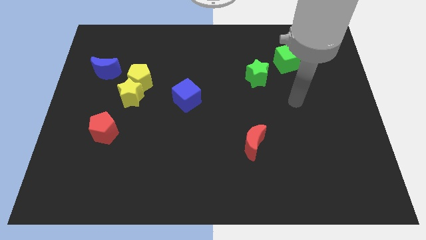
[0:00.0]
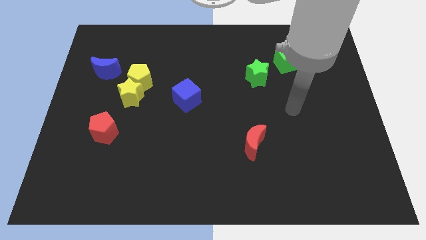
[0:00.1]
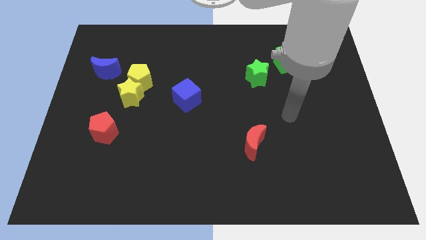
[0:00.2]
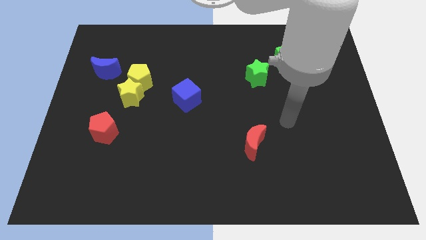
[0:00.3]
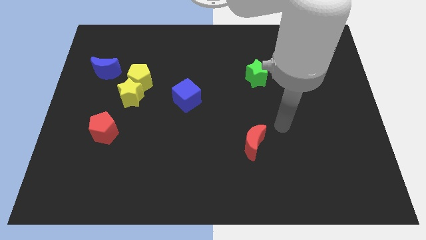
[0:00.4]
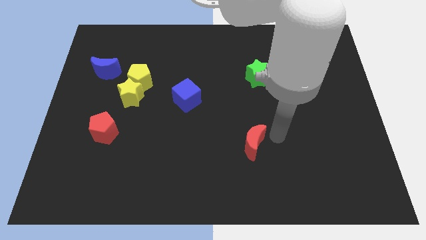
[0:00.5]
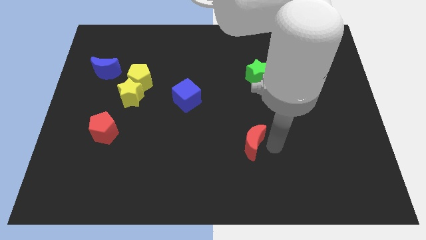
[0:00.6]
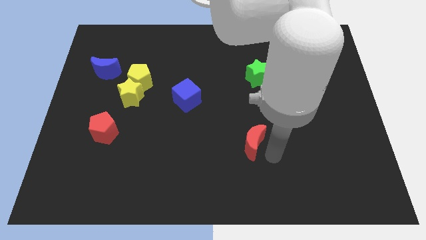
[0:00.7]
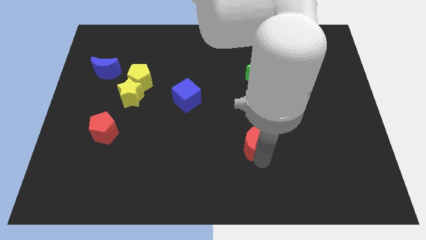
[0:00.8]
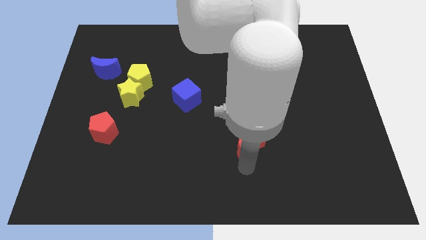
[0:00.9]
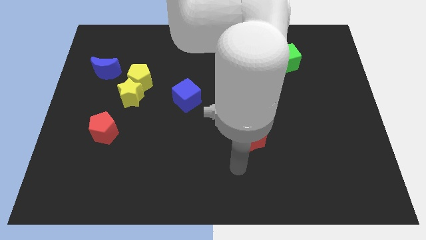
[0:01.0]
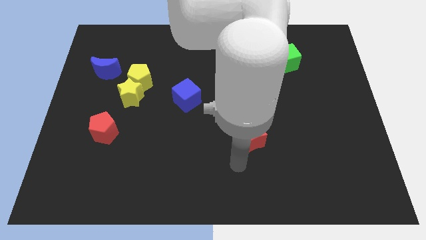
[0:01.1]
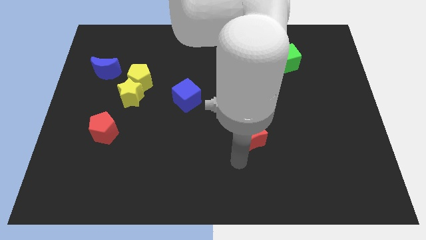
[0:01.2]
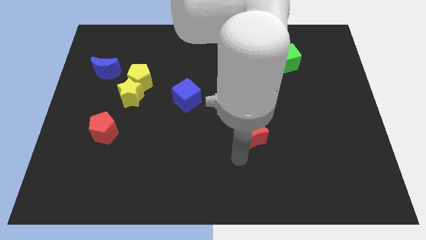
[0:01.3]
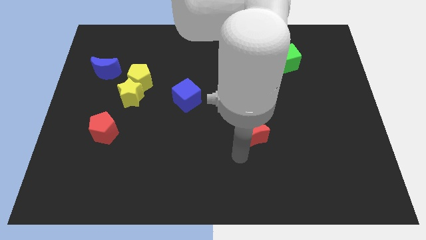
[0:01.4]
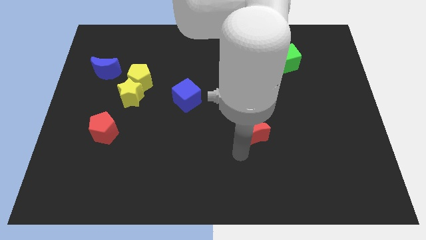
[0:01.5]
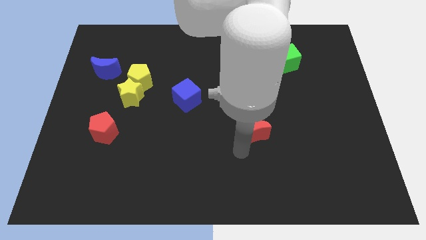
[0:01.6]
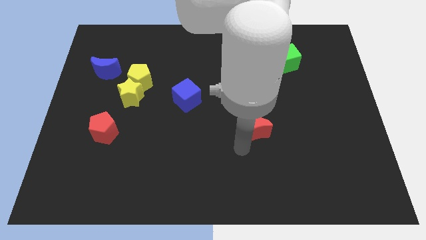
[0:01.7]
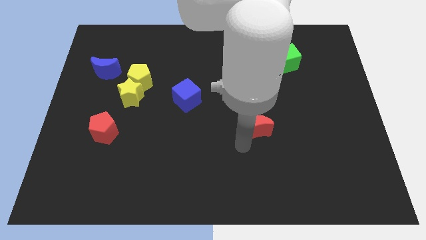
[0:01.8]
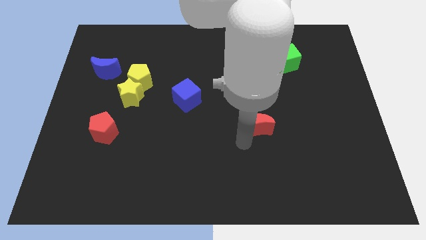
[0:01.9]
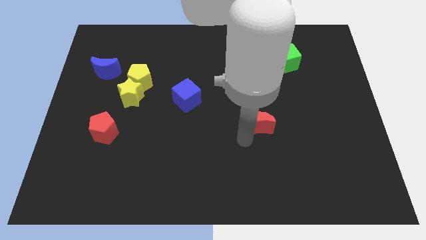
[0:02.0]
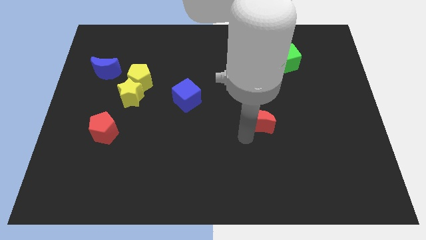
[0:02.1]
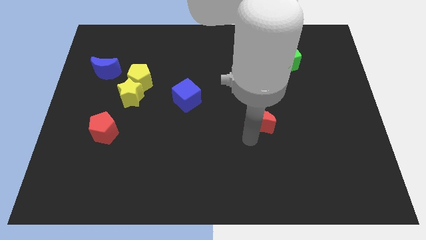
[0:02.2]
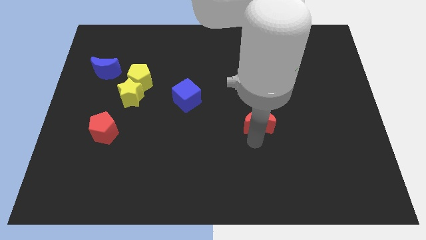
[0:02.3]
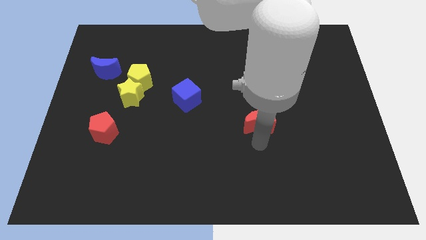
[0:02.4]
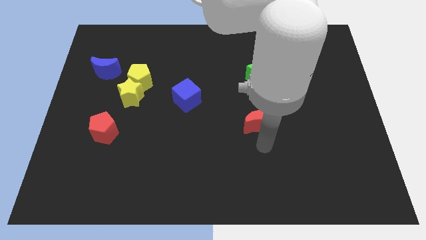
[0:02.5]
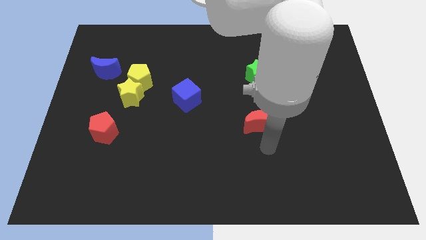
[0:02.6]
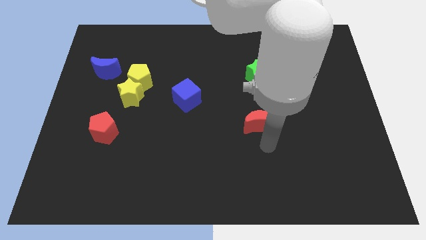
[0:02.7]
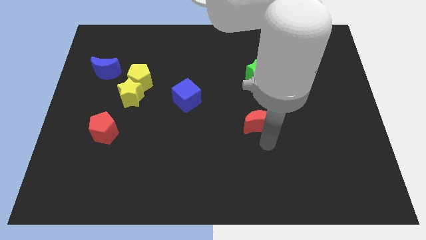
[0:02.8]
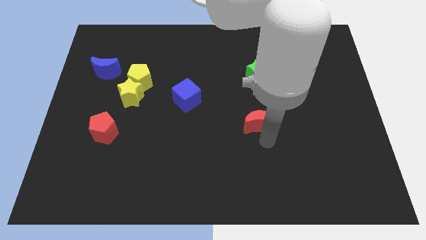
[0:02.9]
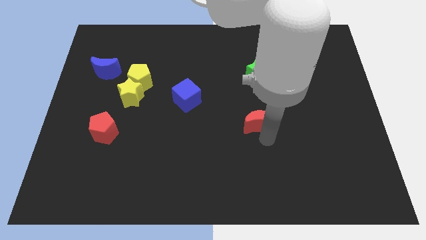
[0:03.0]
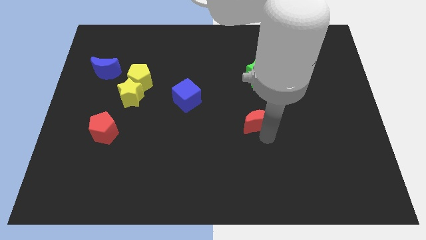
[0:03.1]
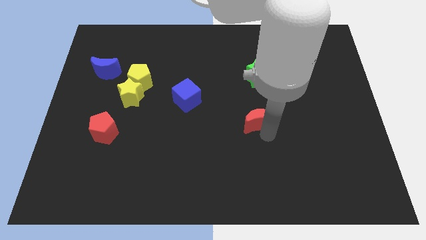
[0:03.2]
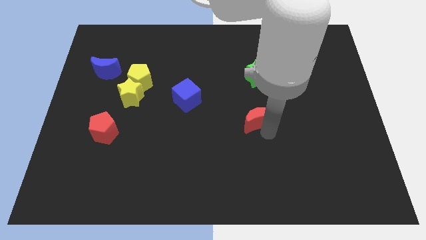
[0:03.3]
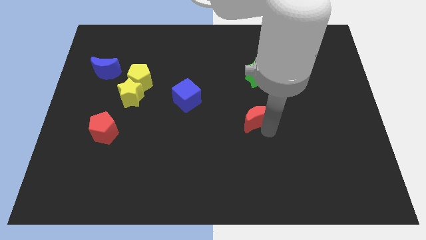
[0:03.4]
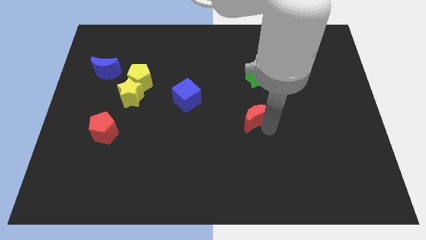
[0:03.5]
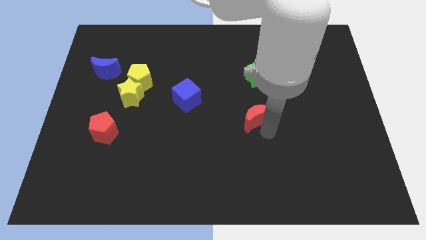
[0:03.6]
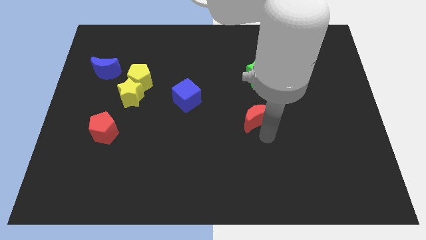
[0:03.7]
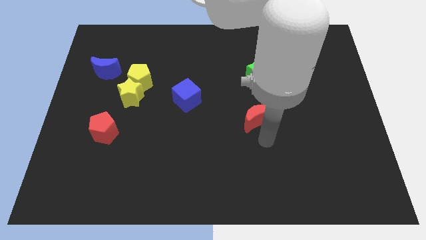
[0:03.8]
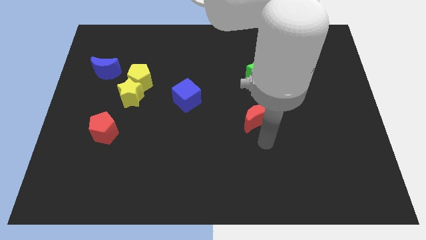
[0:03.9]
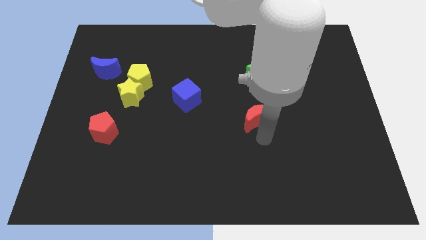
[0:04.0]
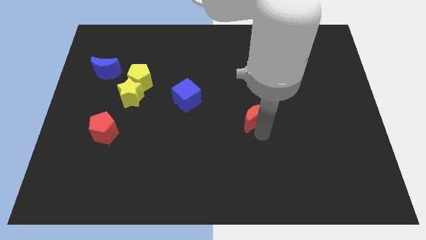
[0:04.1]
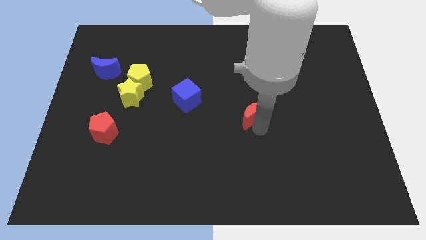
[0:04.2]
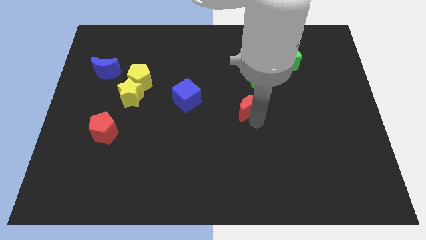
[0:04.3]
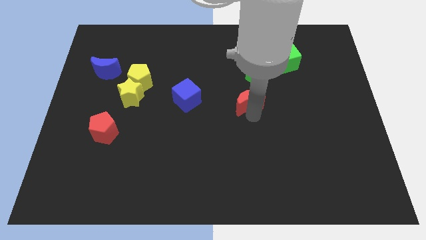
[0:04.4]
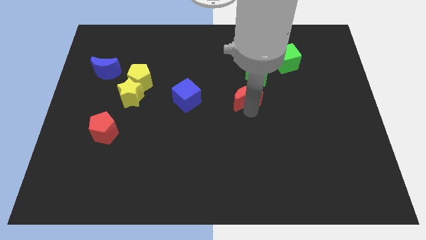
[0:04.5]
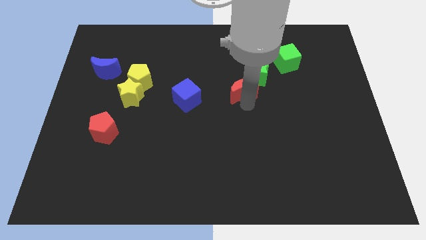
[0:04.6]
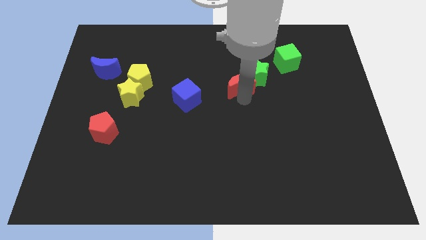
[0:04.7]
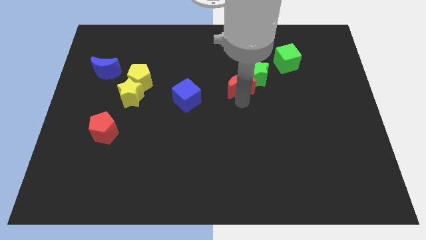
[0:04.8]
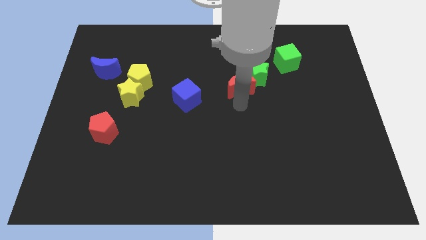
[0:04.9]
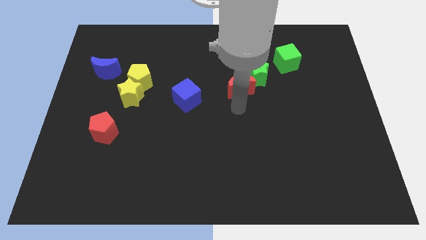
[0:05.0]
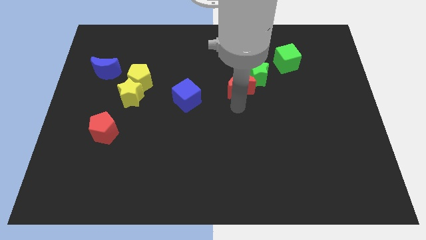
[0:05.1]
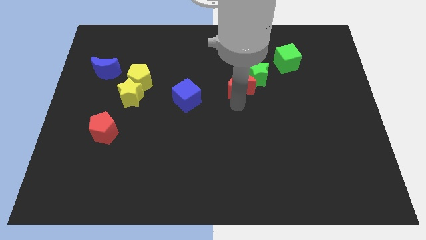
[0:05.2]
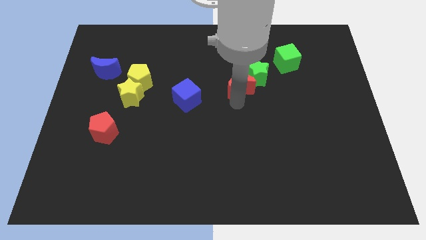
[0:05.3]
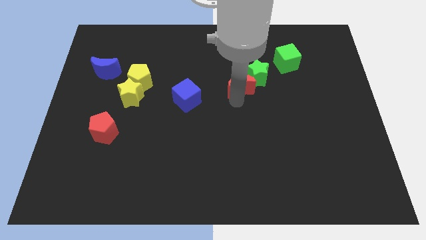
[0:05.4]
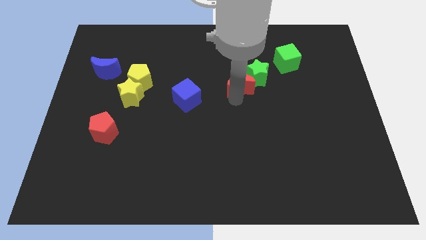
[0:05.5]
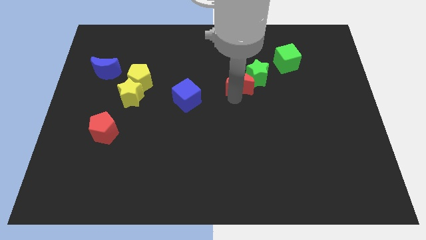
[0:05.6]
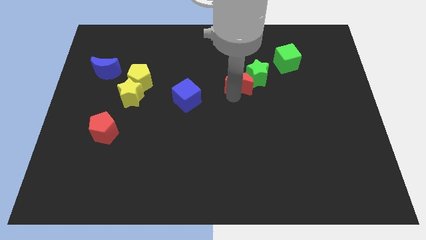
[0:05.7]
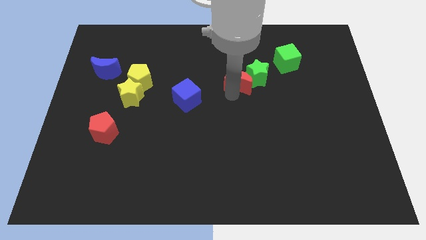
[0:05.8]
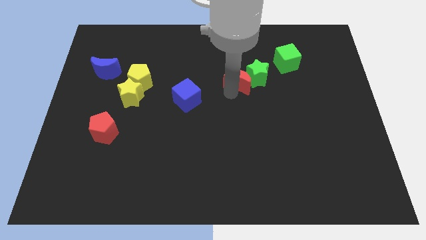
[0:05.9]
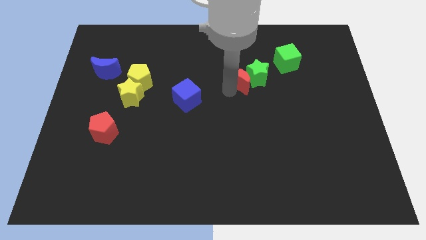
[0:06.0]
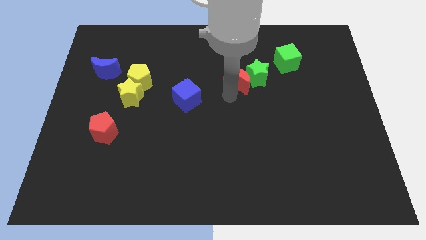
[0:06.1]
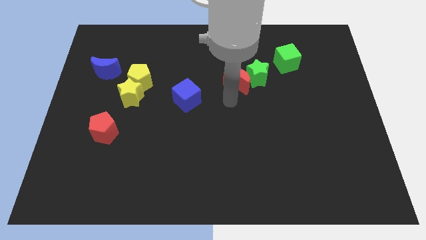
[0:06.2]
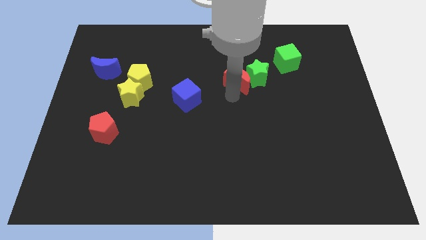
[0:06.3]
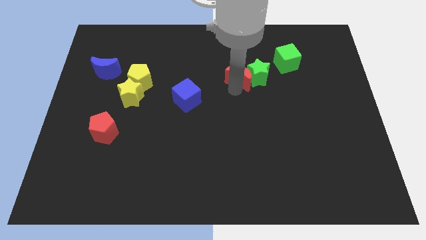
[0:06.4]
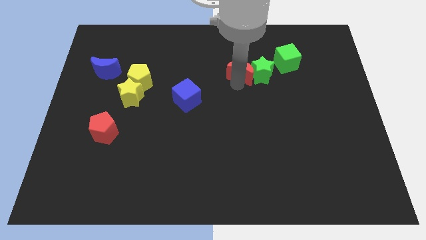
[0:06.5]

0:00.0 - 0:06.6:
push the red moon to the left of the green cube

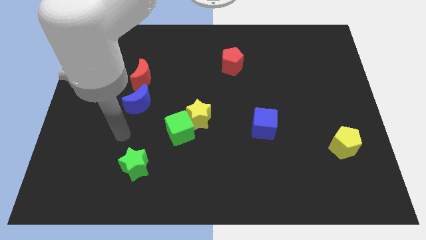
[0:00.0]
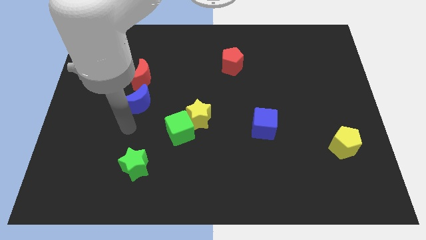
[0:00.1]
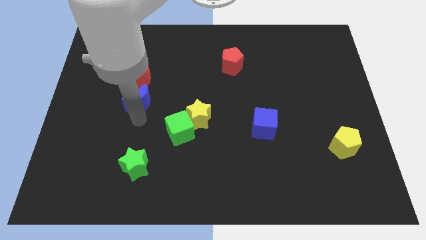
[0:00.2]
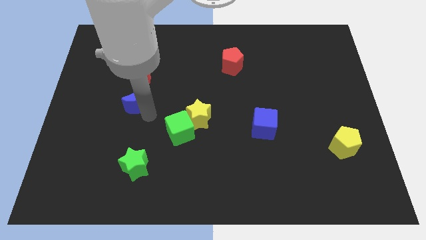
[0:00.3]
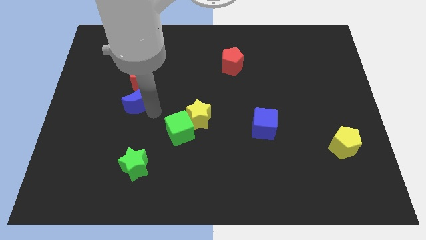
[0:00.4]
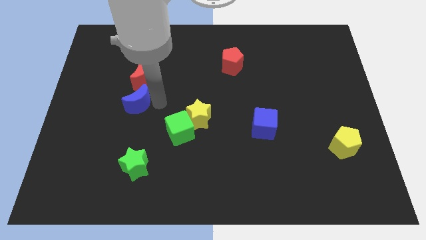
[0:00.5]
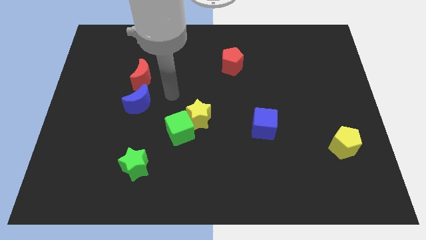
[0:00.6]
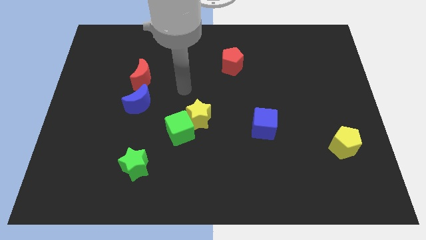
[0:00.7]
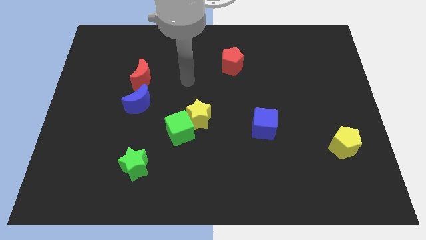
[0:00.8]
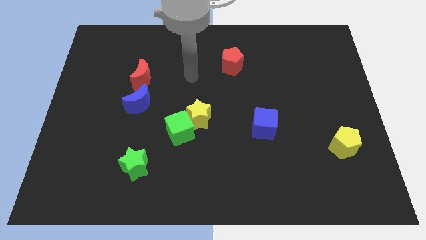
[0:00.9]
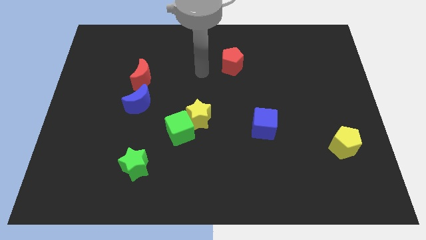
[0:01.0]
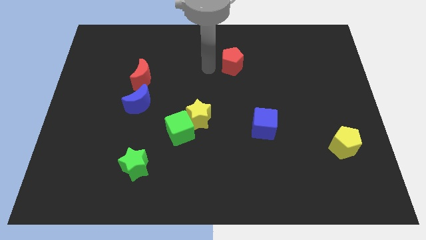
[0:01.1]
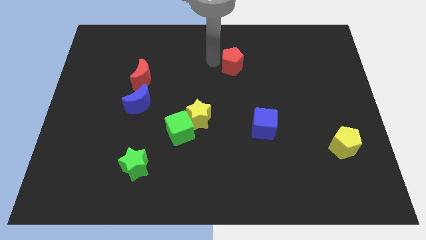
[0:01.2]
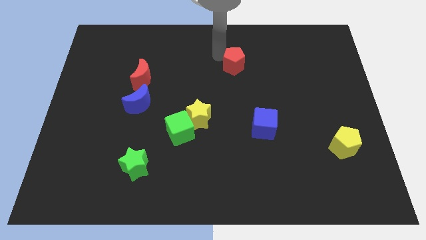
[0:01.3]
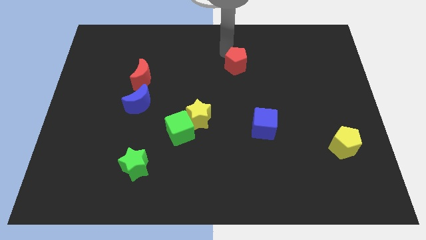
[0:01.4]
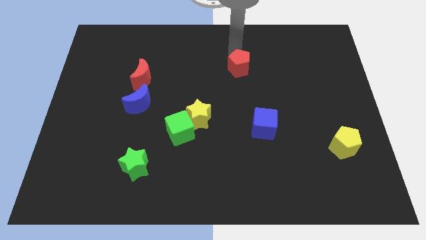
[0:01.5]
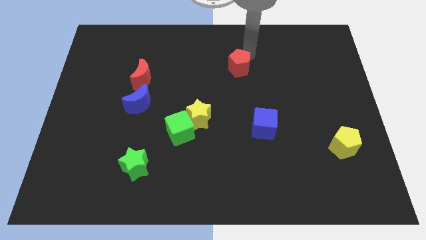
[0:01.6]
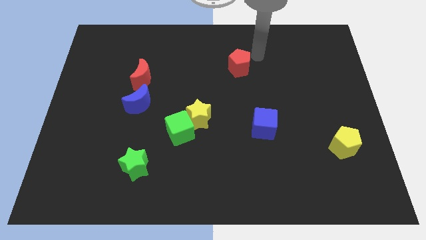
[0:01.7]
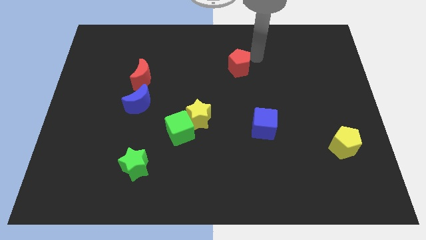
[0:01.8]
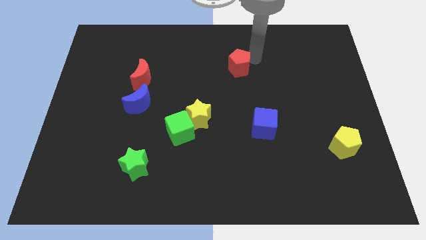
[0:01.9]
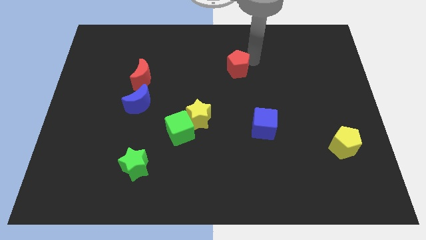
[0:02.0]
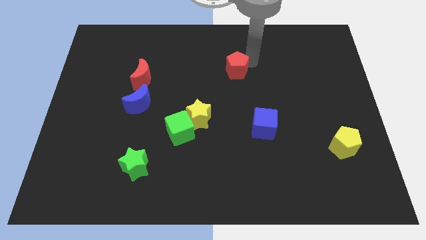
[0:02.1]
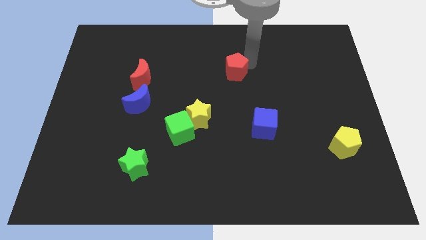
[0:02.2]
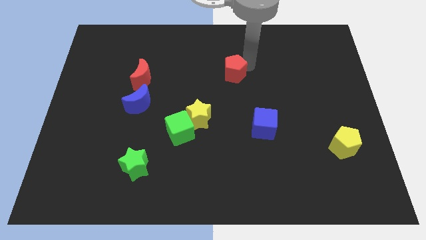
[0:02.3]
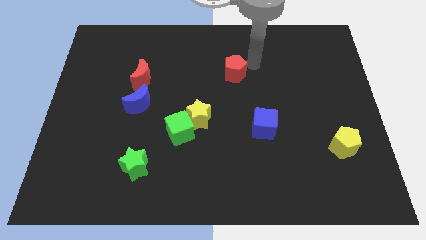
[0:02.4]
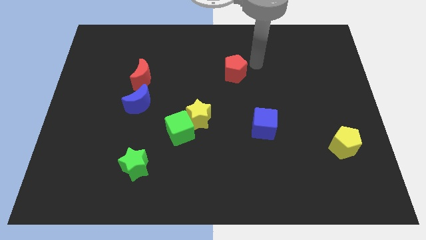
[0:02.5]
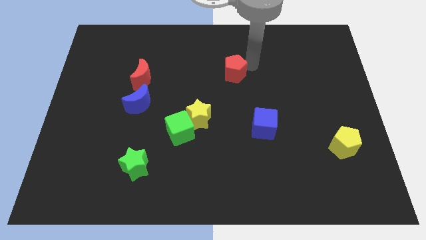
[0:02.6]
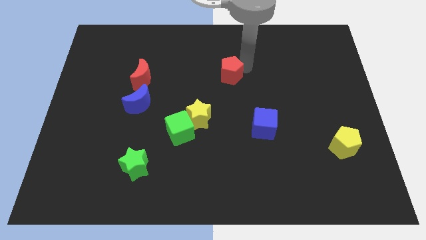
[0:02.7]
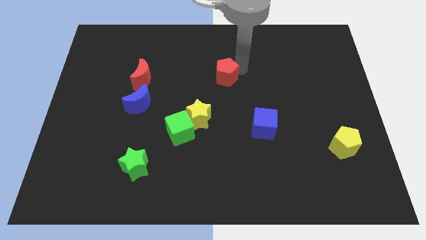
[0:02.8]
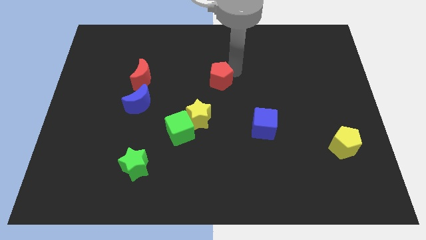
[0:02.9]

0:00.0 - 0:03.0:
move the red pentagon to the top side of the yellow star
